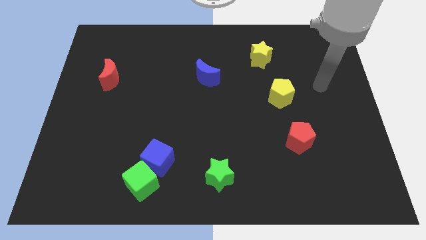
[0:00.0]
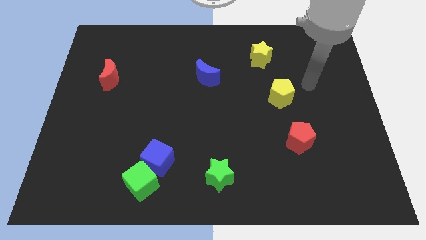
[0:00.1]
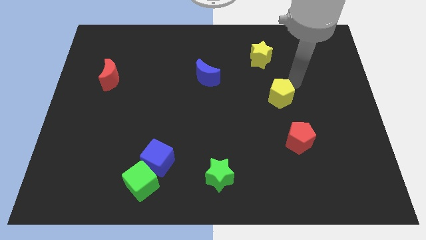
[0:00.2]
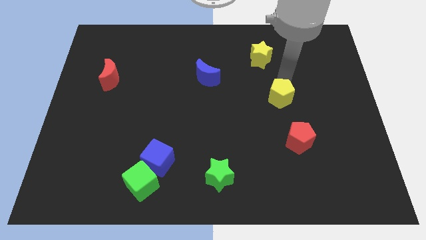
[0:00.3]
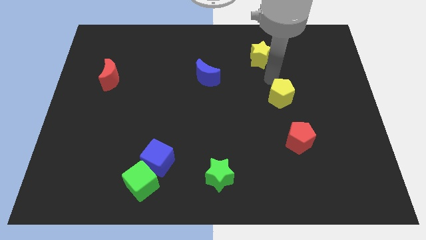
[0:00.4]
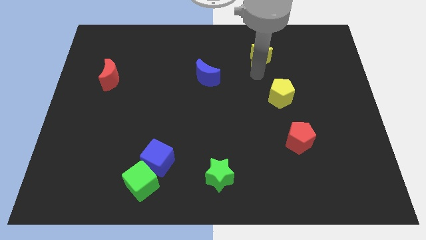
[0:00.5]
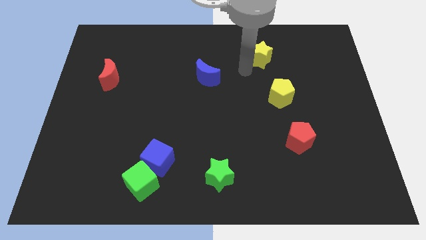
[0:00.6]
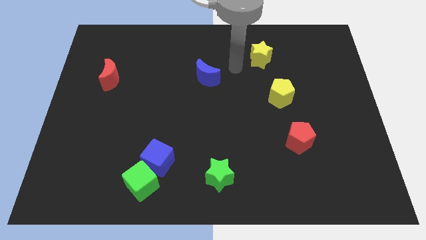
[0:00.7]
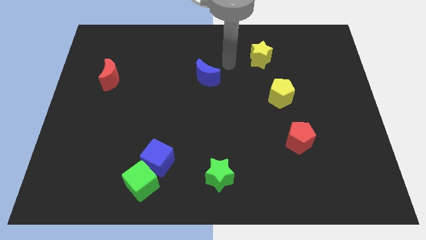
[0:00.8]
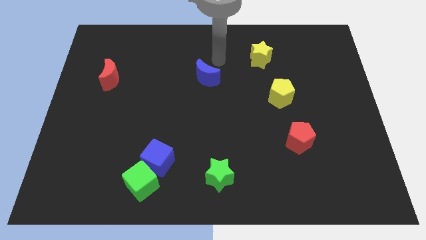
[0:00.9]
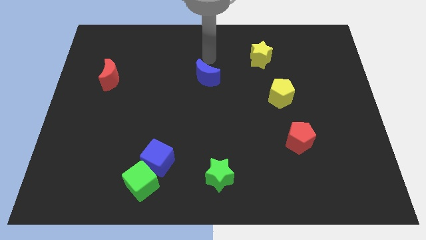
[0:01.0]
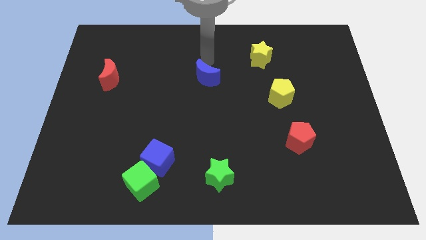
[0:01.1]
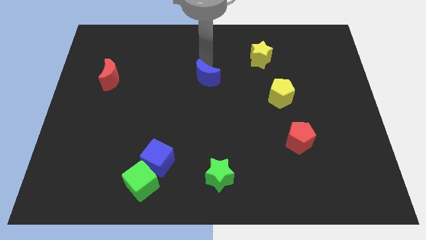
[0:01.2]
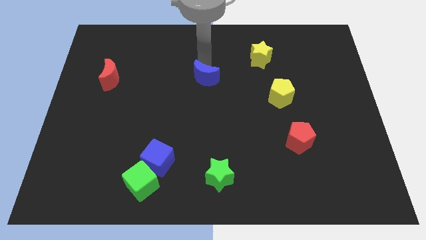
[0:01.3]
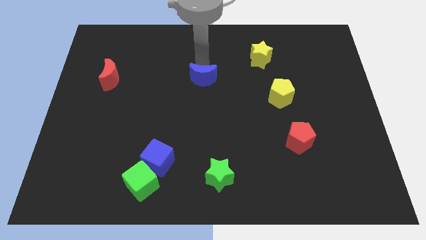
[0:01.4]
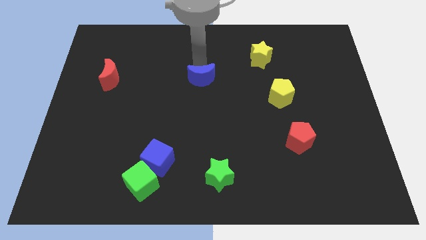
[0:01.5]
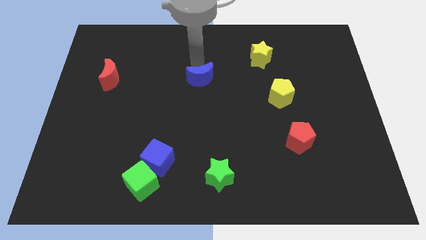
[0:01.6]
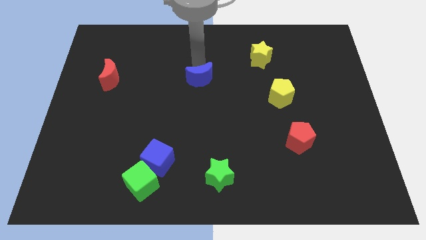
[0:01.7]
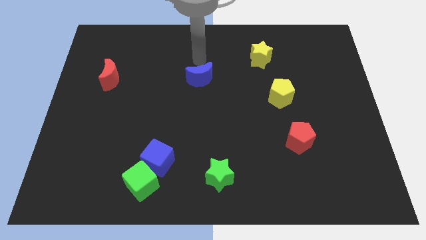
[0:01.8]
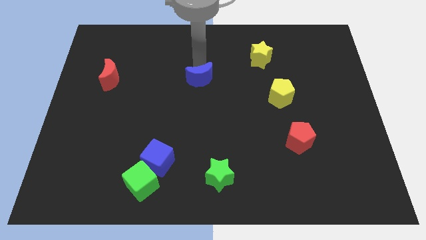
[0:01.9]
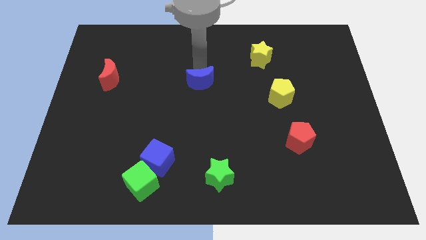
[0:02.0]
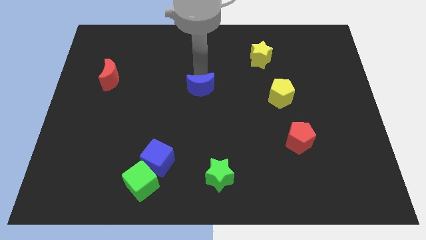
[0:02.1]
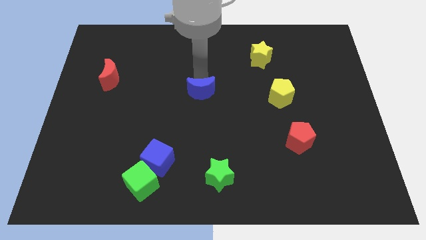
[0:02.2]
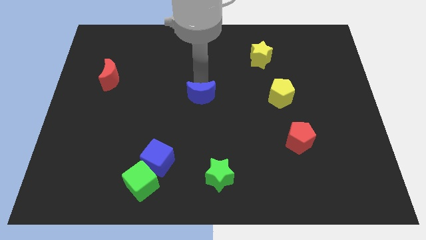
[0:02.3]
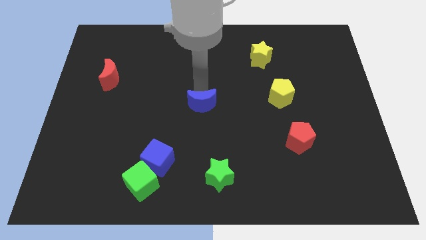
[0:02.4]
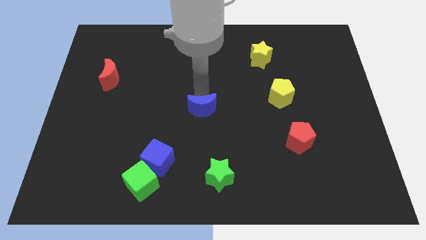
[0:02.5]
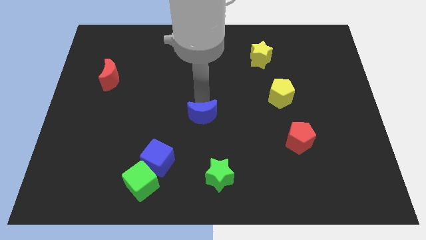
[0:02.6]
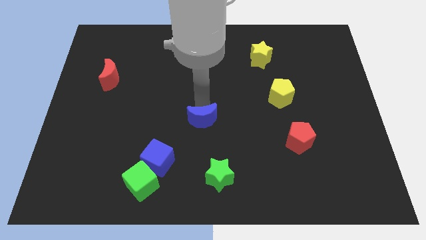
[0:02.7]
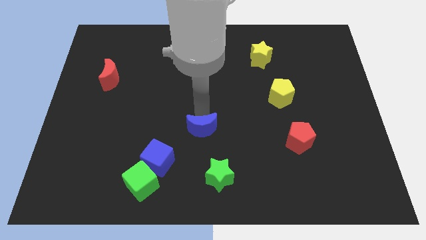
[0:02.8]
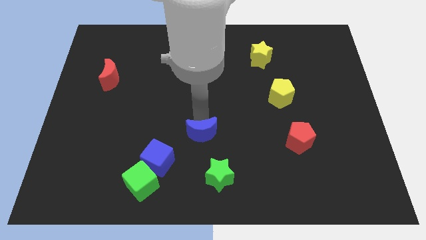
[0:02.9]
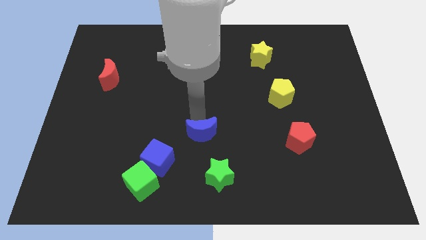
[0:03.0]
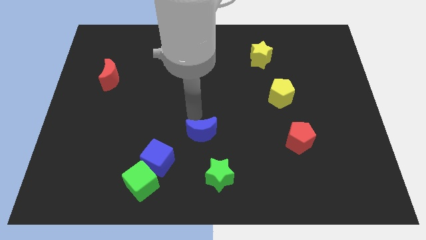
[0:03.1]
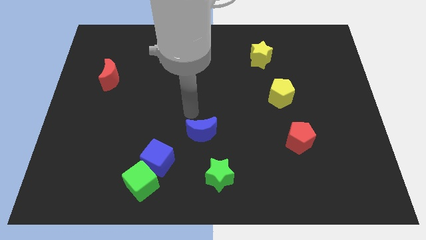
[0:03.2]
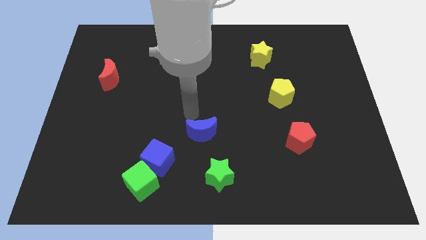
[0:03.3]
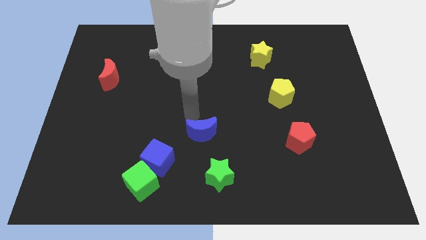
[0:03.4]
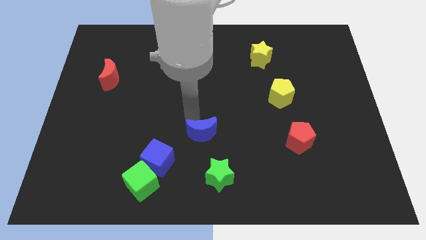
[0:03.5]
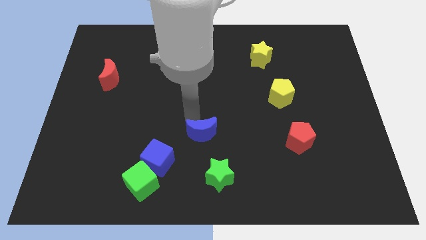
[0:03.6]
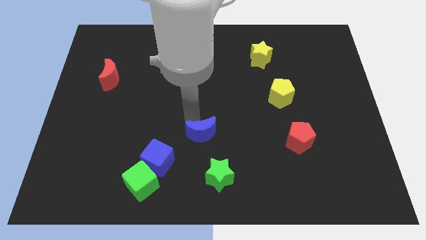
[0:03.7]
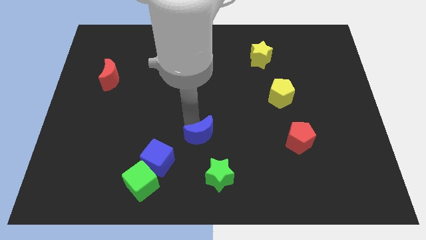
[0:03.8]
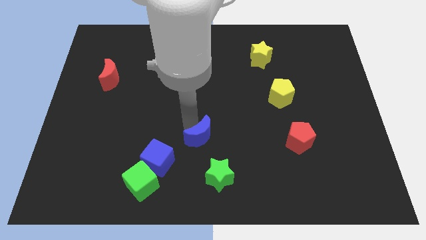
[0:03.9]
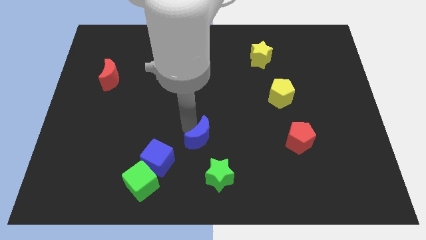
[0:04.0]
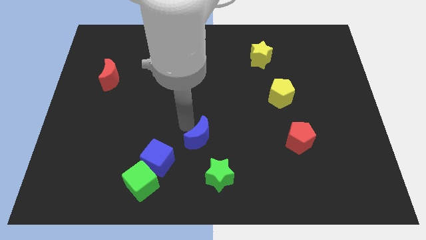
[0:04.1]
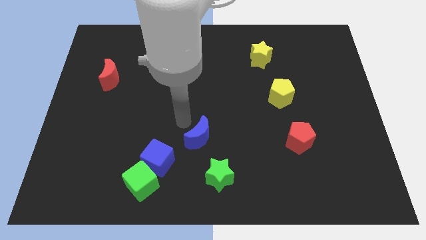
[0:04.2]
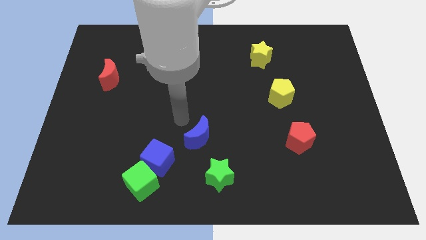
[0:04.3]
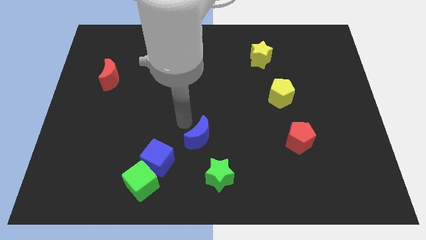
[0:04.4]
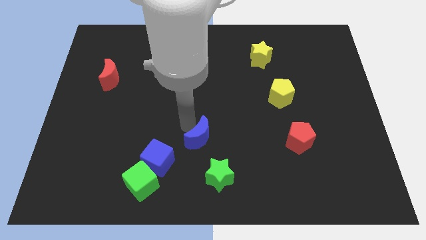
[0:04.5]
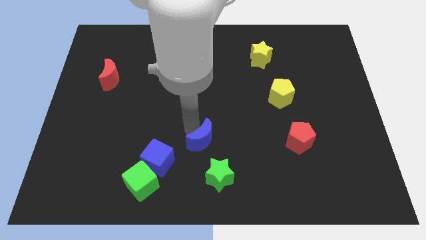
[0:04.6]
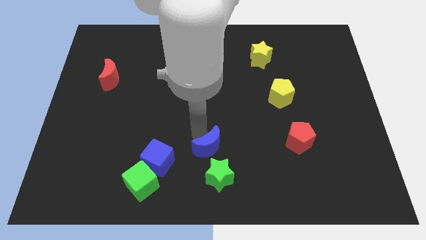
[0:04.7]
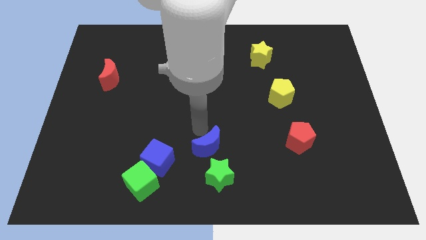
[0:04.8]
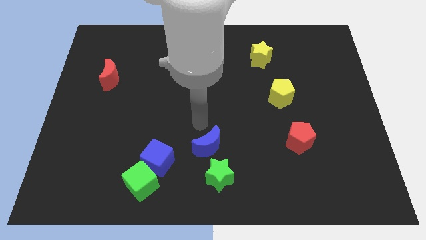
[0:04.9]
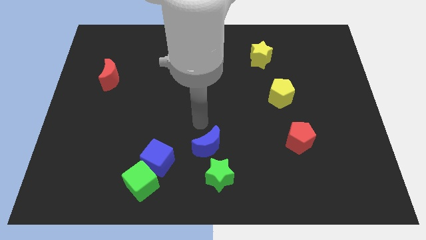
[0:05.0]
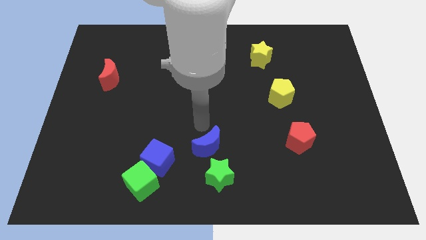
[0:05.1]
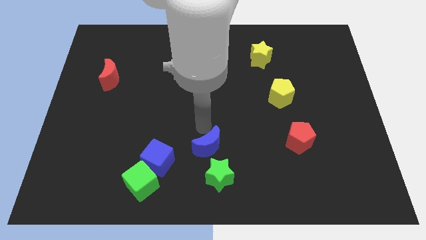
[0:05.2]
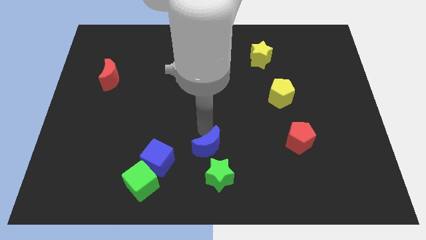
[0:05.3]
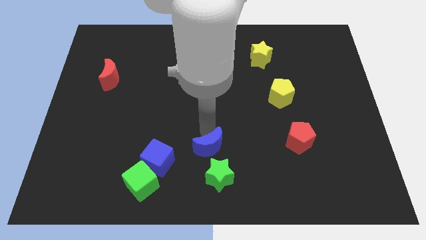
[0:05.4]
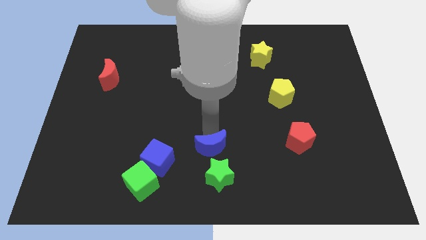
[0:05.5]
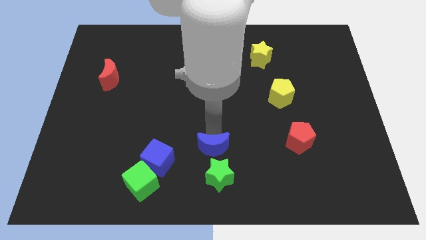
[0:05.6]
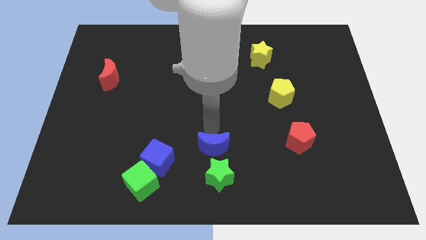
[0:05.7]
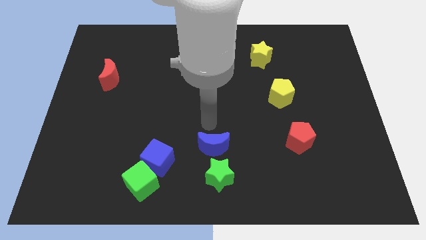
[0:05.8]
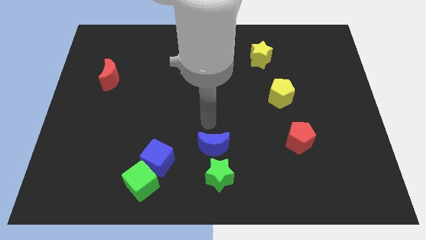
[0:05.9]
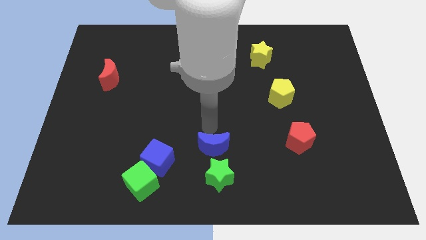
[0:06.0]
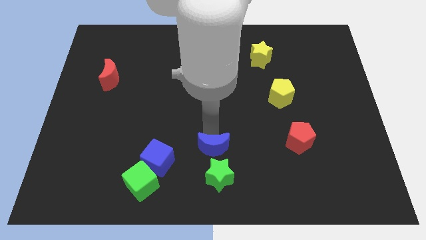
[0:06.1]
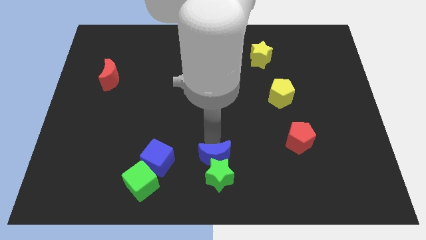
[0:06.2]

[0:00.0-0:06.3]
put the blue moon close to the green star

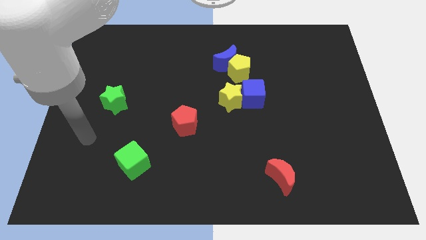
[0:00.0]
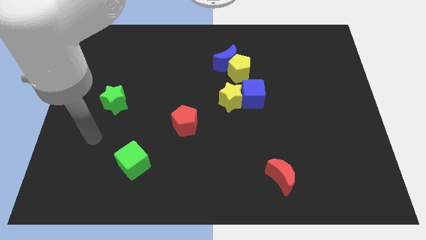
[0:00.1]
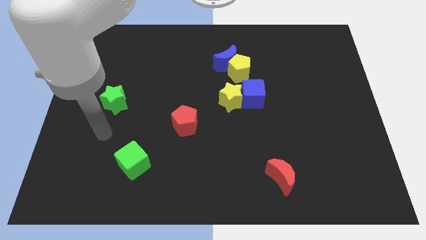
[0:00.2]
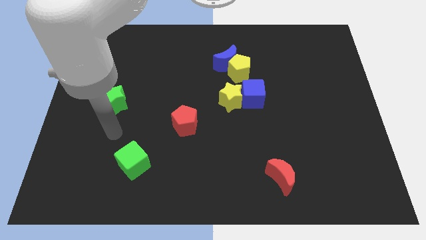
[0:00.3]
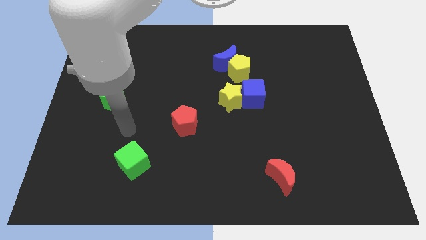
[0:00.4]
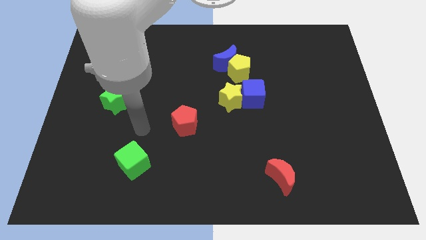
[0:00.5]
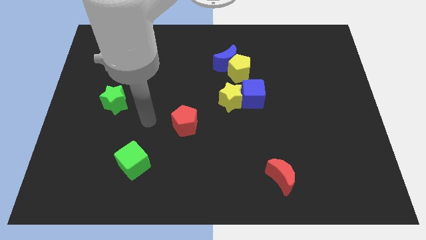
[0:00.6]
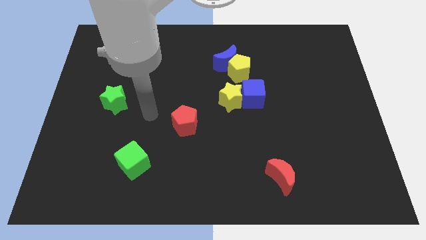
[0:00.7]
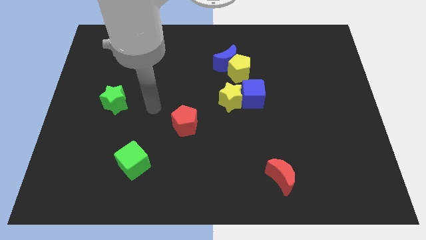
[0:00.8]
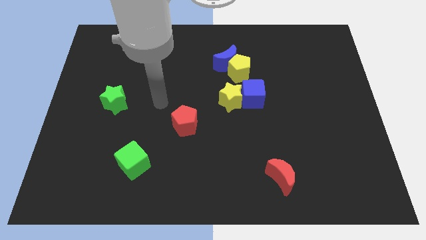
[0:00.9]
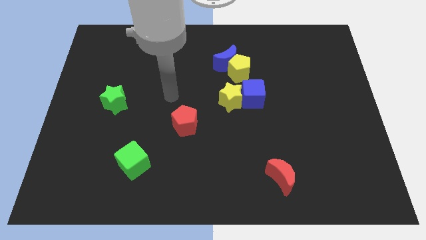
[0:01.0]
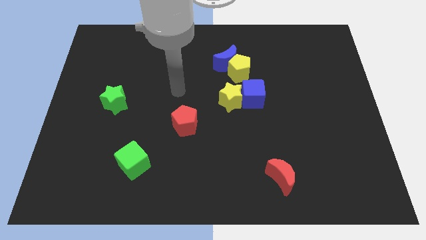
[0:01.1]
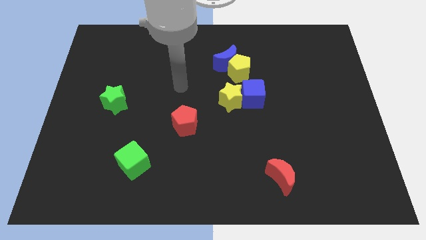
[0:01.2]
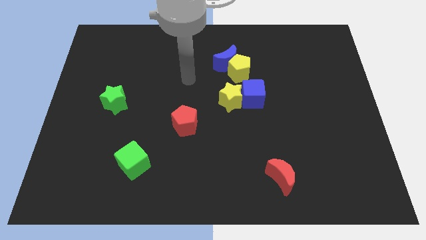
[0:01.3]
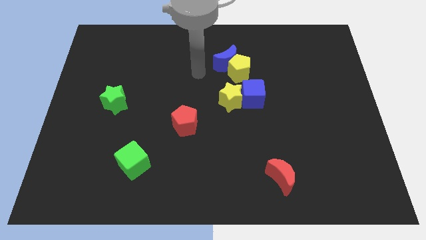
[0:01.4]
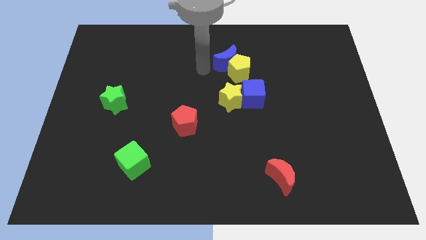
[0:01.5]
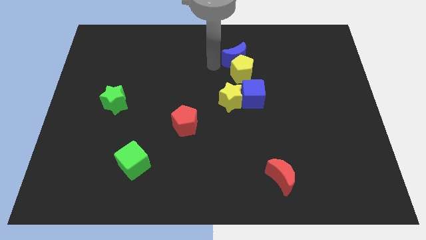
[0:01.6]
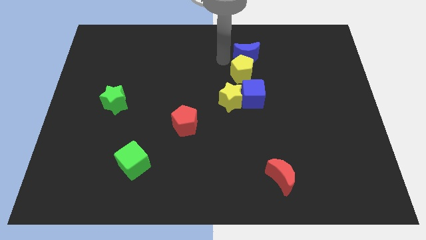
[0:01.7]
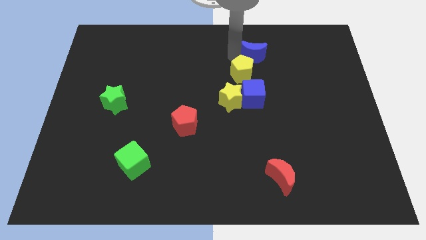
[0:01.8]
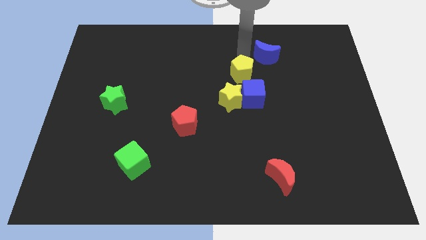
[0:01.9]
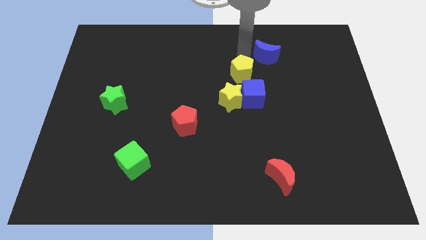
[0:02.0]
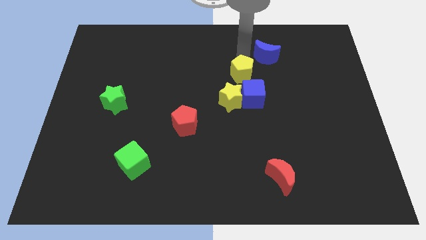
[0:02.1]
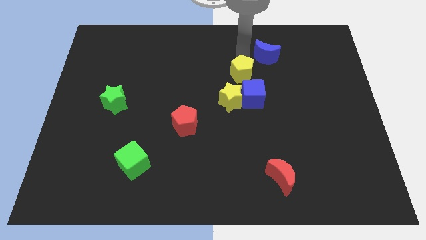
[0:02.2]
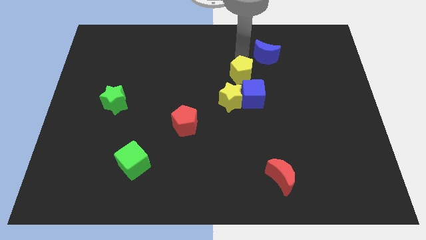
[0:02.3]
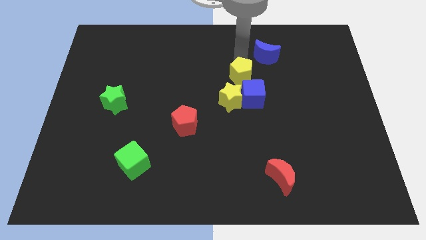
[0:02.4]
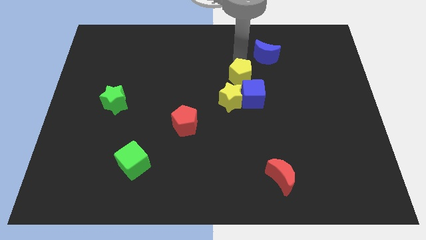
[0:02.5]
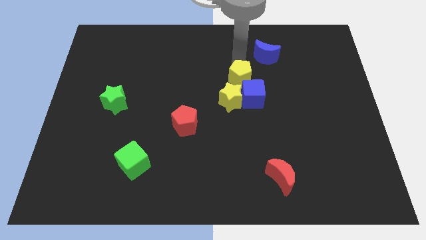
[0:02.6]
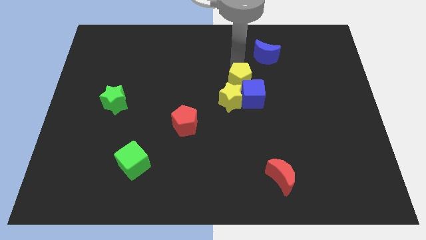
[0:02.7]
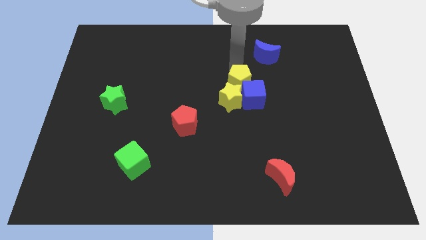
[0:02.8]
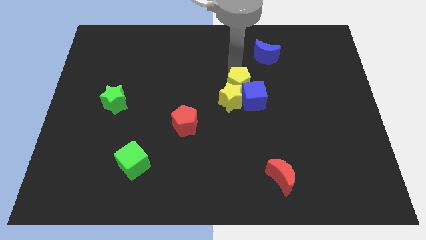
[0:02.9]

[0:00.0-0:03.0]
slide the yellow pentagon towards the yellow star
